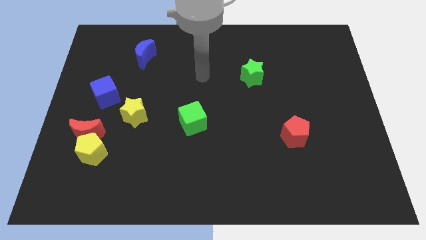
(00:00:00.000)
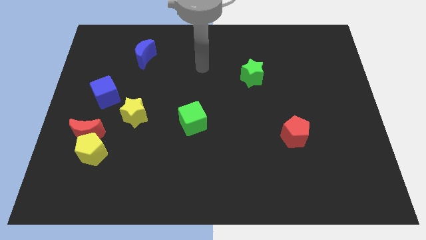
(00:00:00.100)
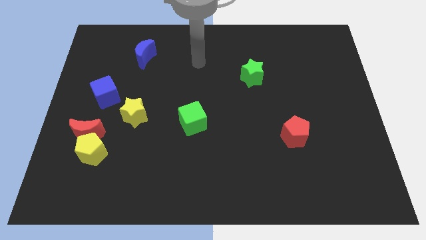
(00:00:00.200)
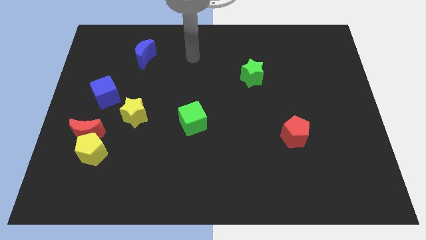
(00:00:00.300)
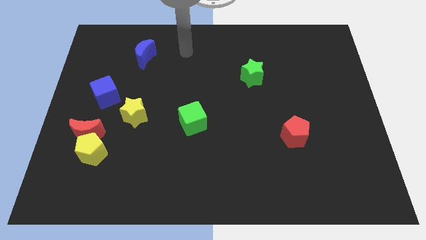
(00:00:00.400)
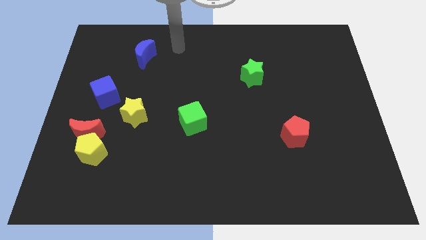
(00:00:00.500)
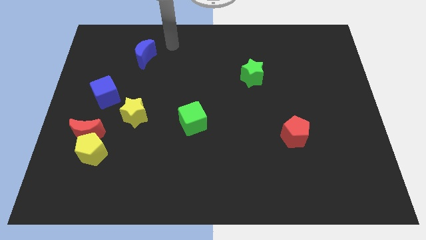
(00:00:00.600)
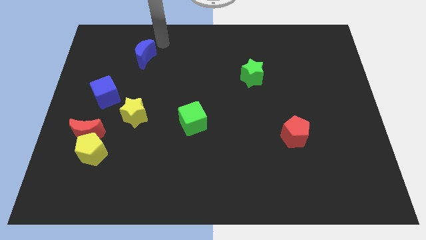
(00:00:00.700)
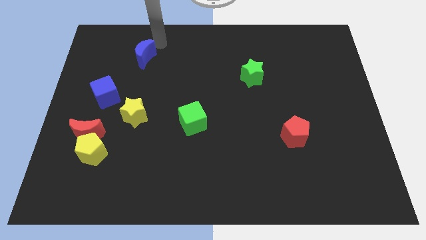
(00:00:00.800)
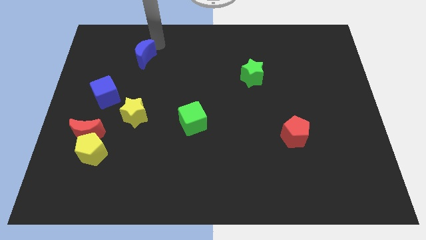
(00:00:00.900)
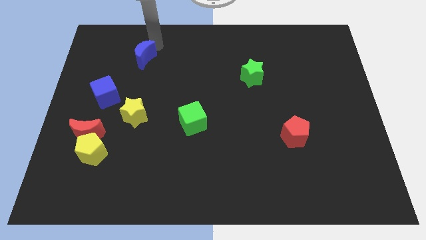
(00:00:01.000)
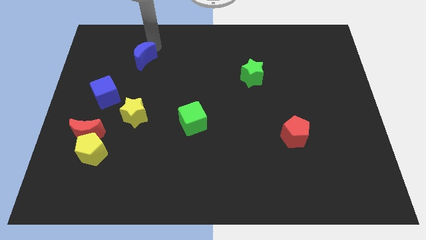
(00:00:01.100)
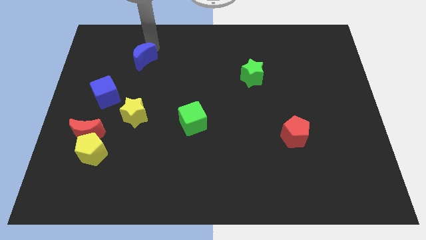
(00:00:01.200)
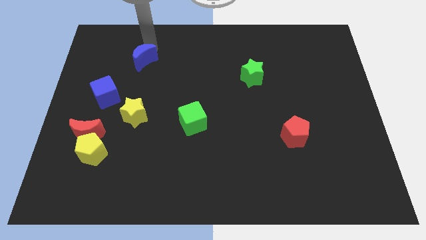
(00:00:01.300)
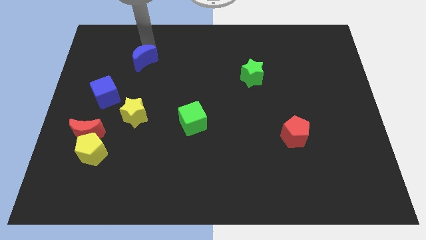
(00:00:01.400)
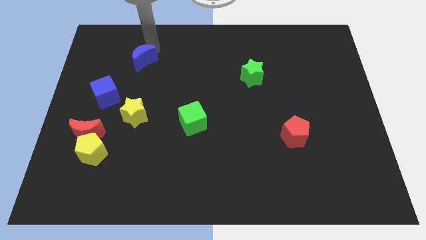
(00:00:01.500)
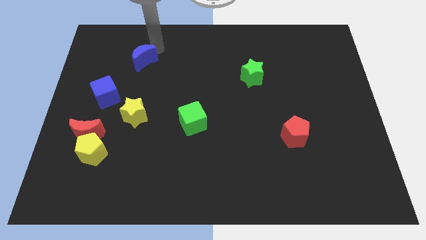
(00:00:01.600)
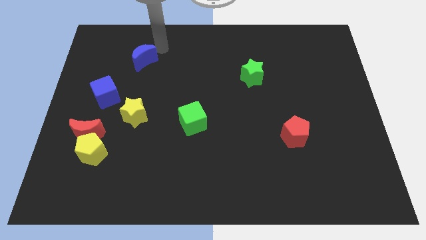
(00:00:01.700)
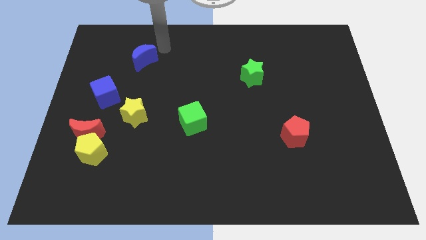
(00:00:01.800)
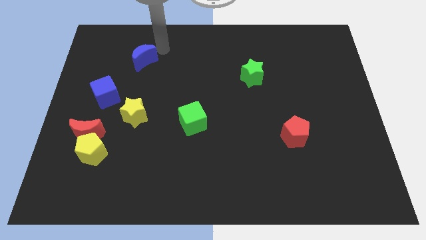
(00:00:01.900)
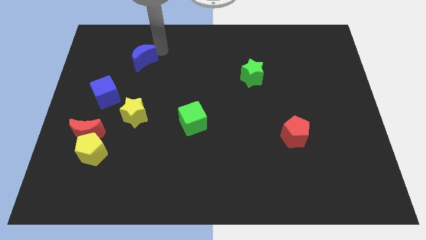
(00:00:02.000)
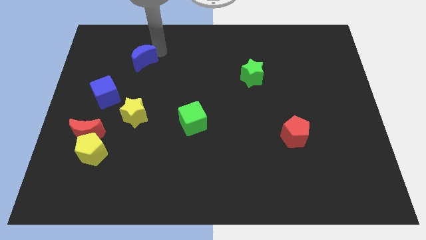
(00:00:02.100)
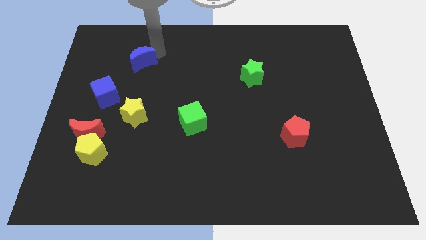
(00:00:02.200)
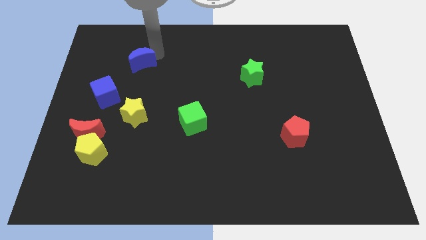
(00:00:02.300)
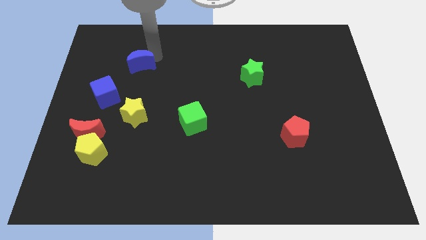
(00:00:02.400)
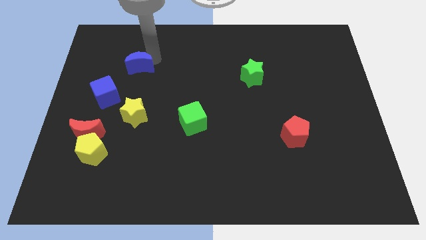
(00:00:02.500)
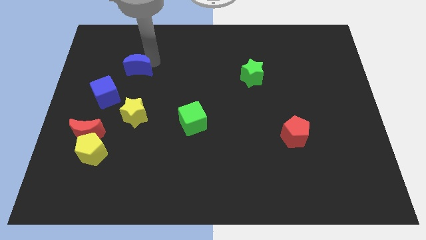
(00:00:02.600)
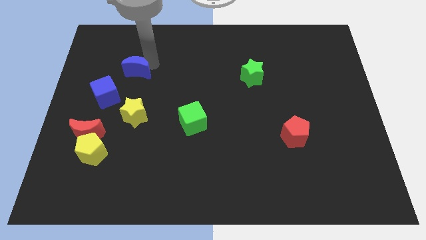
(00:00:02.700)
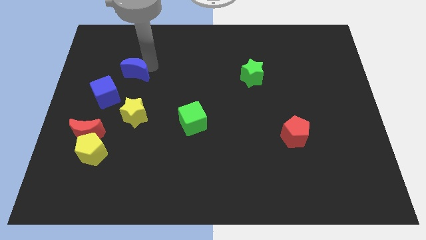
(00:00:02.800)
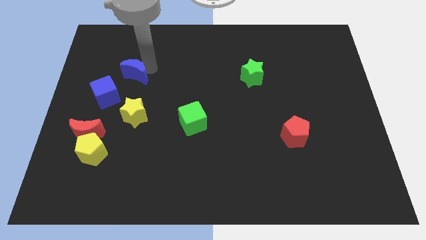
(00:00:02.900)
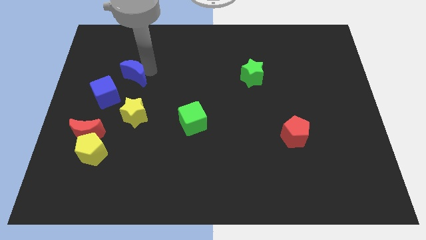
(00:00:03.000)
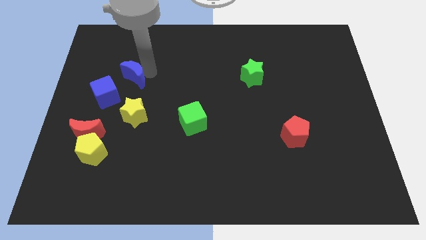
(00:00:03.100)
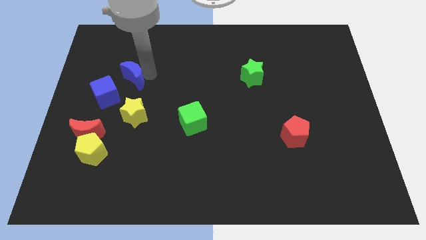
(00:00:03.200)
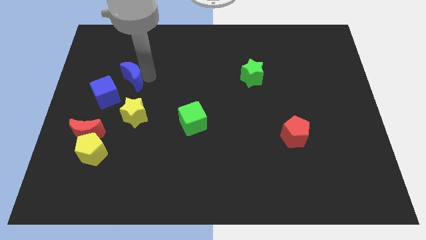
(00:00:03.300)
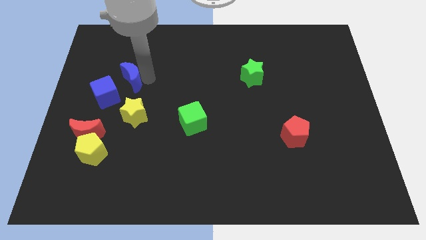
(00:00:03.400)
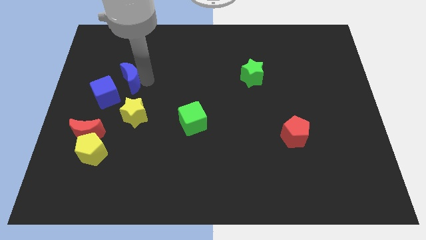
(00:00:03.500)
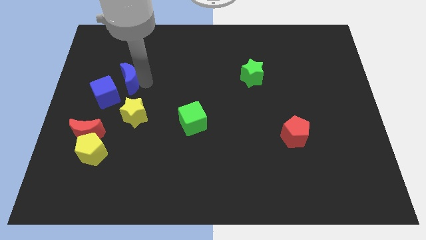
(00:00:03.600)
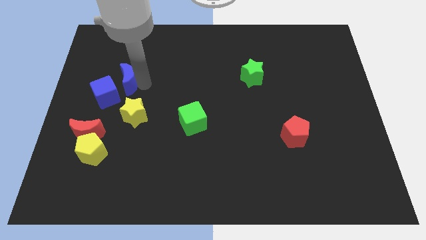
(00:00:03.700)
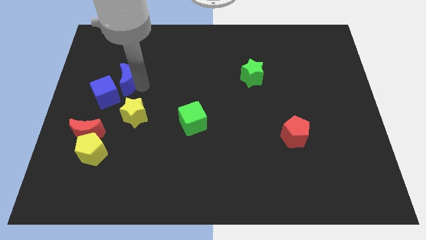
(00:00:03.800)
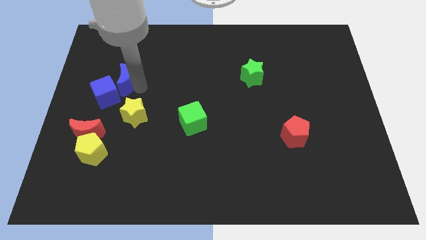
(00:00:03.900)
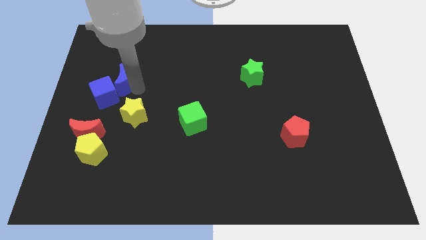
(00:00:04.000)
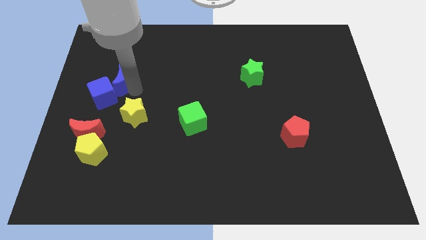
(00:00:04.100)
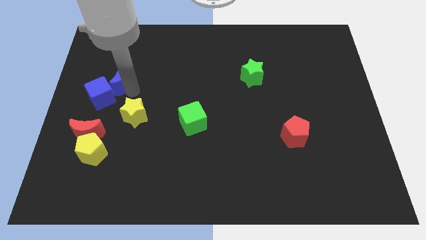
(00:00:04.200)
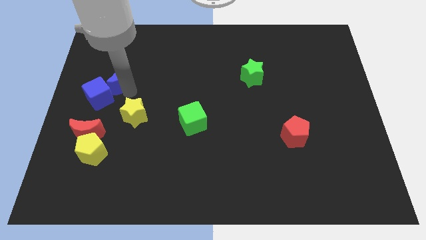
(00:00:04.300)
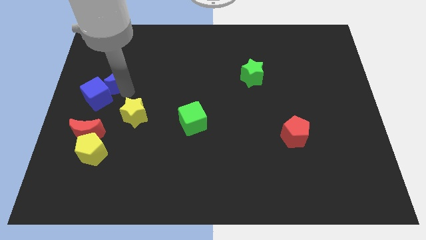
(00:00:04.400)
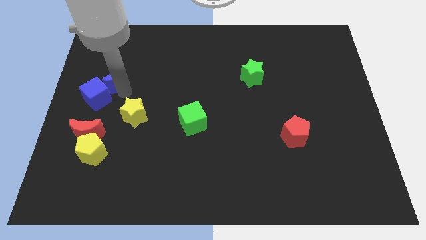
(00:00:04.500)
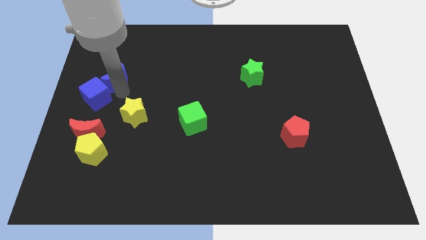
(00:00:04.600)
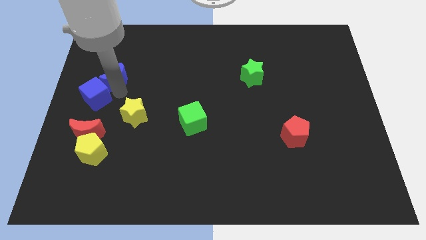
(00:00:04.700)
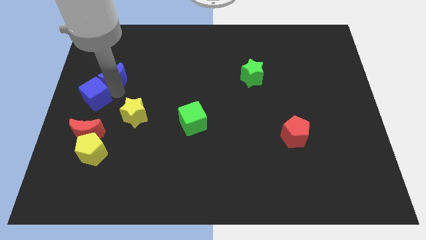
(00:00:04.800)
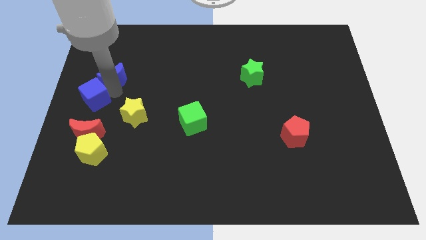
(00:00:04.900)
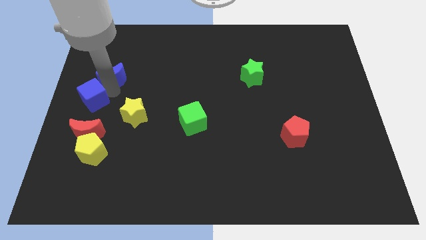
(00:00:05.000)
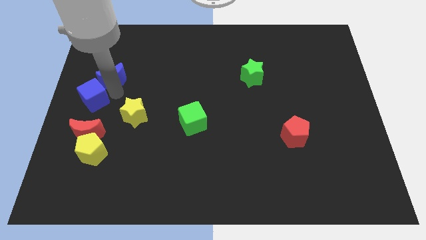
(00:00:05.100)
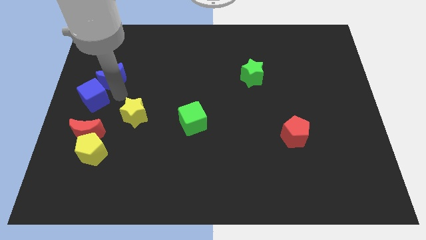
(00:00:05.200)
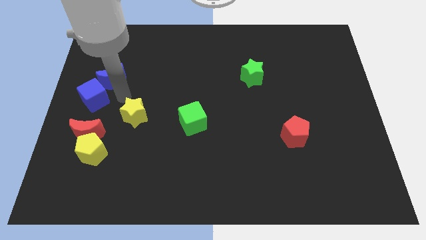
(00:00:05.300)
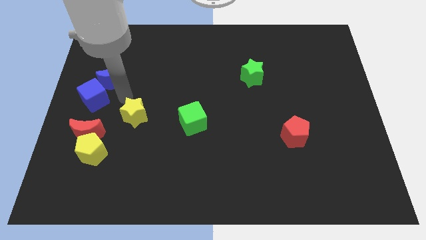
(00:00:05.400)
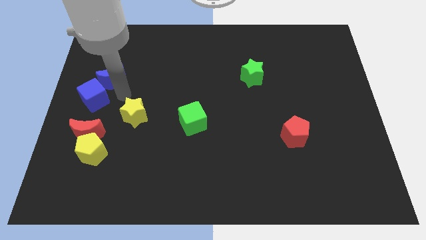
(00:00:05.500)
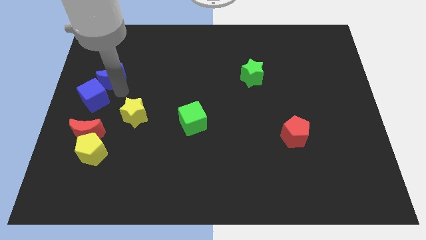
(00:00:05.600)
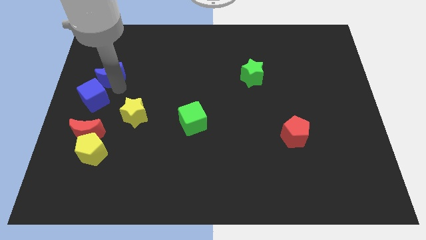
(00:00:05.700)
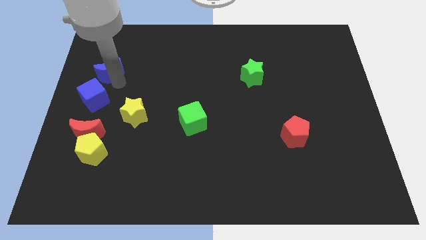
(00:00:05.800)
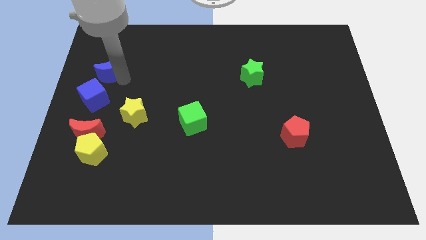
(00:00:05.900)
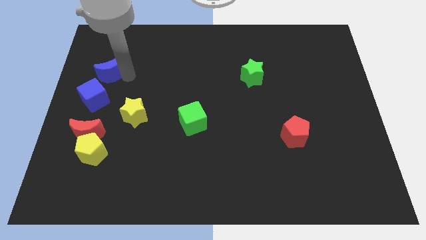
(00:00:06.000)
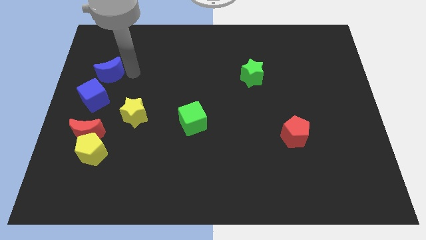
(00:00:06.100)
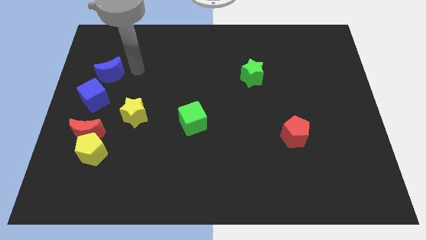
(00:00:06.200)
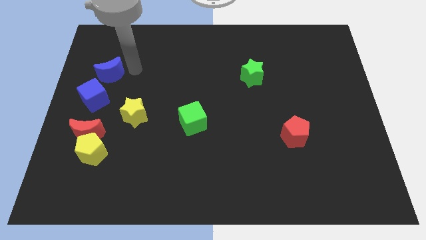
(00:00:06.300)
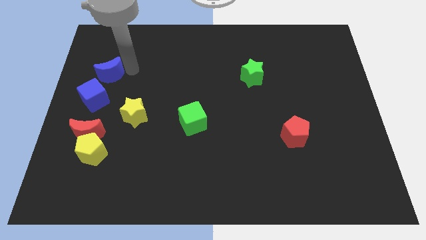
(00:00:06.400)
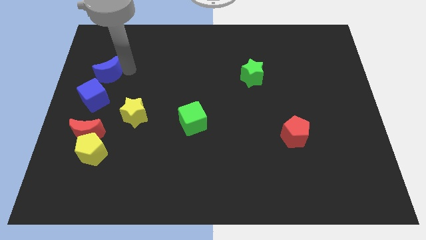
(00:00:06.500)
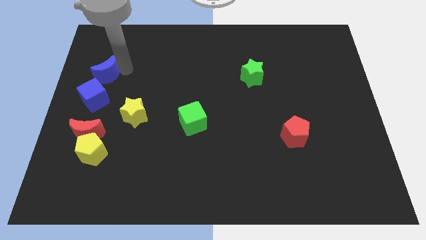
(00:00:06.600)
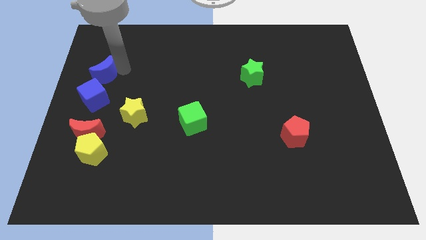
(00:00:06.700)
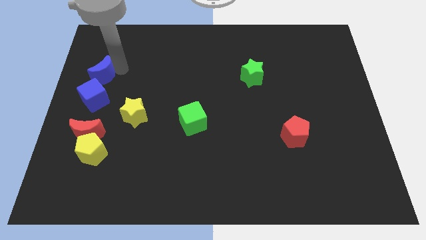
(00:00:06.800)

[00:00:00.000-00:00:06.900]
put the blue moon to the left side

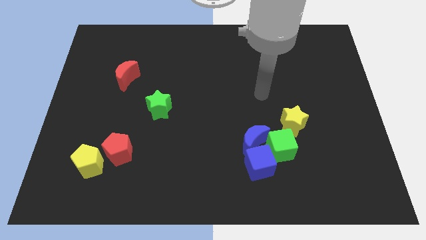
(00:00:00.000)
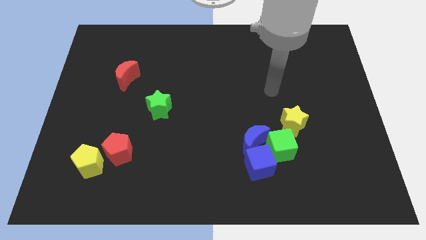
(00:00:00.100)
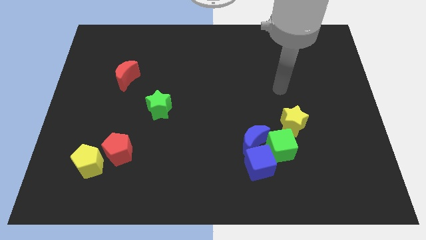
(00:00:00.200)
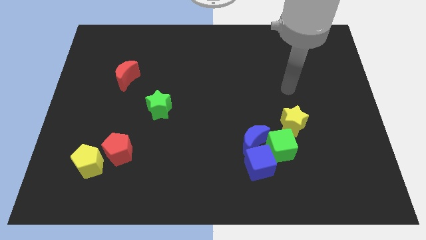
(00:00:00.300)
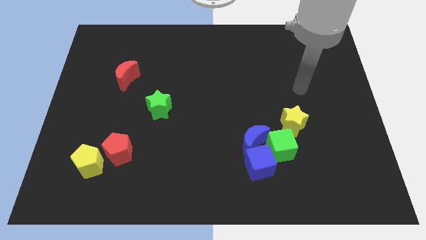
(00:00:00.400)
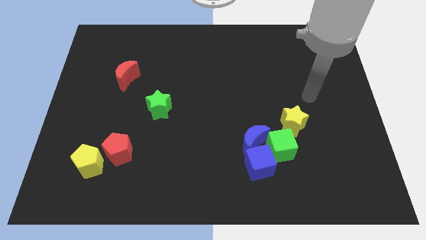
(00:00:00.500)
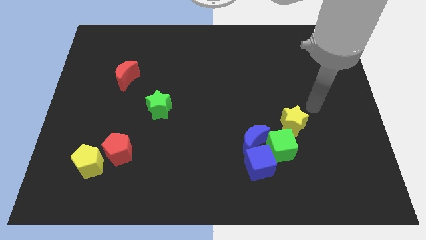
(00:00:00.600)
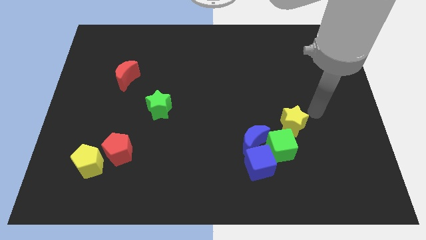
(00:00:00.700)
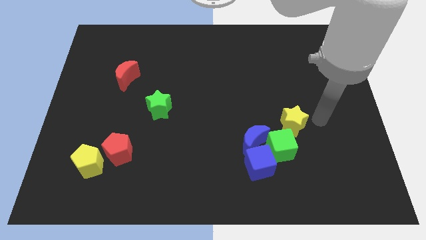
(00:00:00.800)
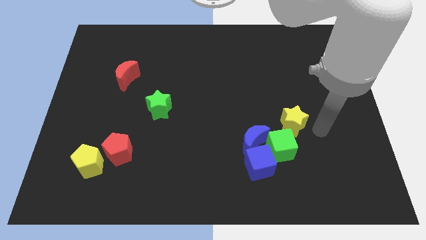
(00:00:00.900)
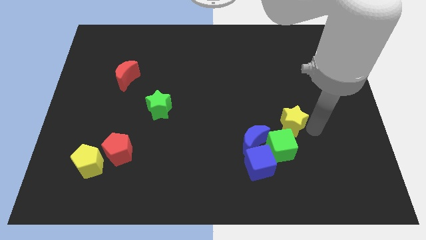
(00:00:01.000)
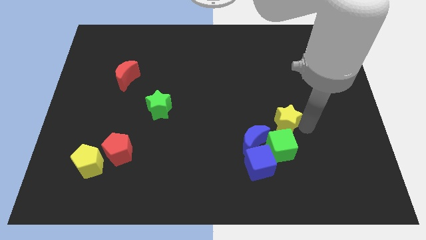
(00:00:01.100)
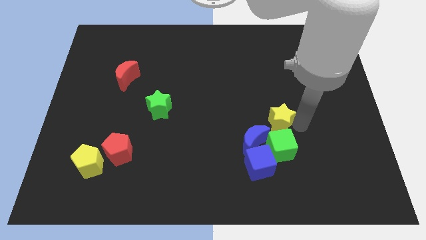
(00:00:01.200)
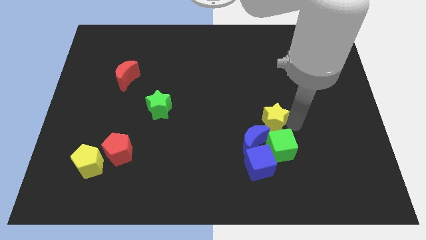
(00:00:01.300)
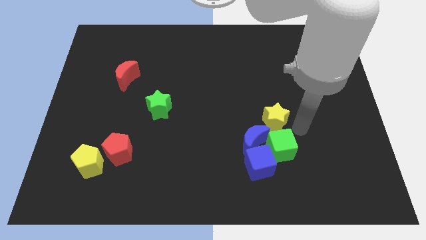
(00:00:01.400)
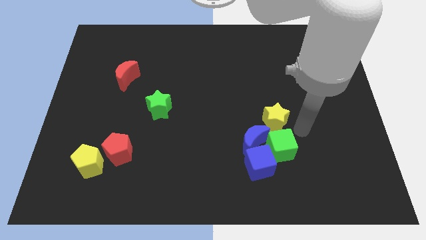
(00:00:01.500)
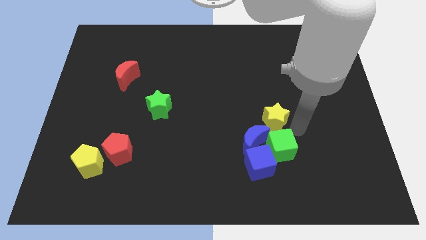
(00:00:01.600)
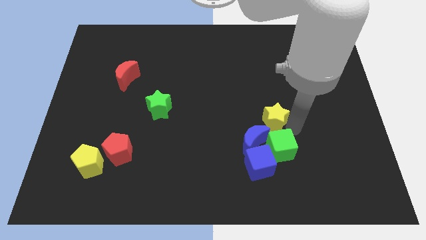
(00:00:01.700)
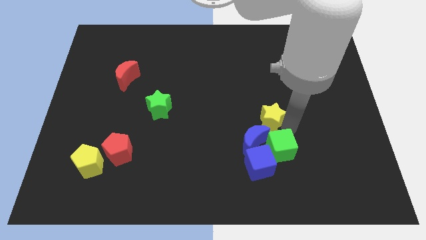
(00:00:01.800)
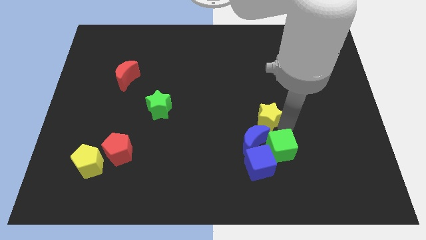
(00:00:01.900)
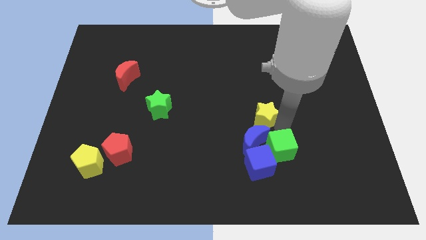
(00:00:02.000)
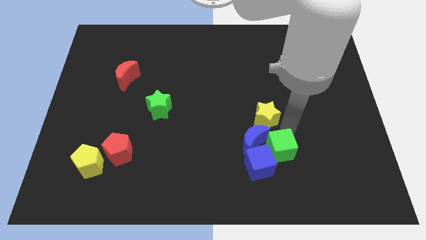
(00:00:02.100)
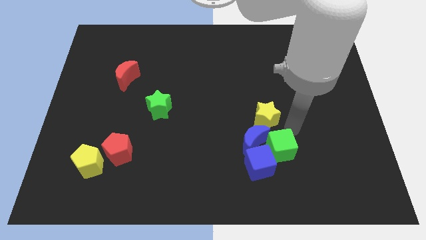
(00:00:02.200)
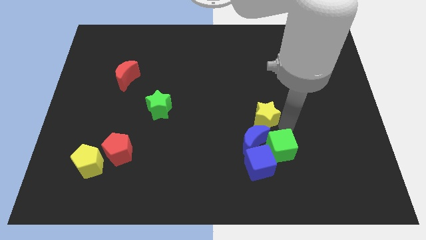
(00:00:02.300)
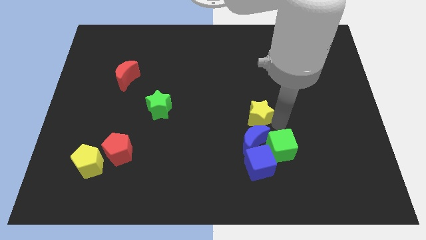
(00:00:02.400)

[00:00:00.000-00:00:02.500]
push the yellow star to the middle
